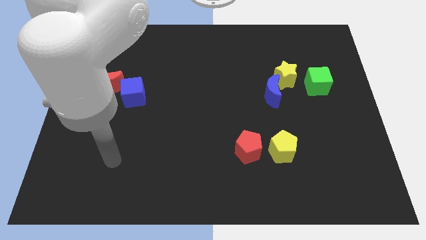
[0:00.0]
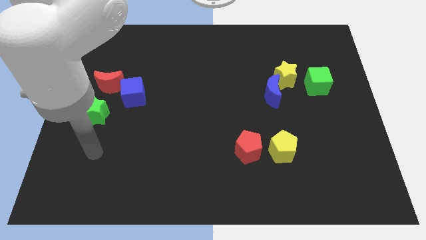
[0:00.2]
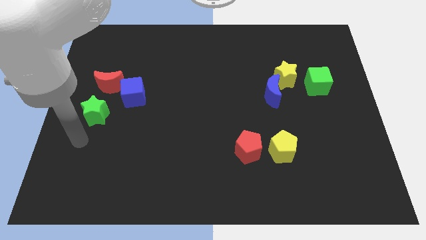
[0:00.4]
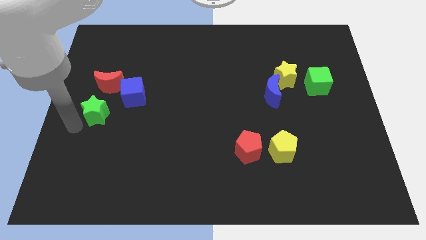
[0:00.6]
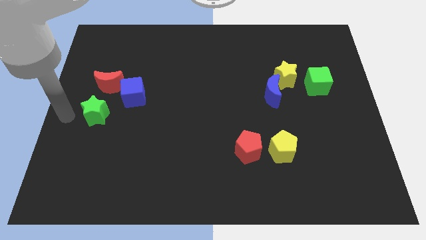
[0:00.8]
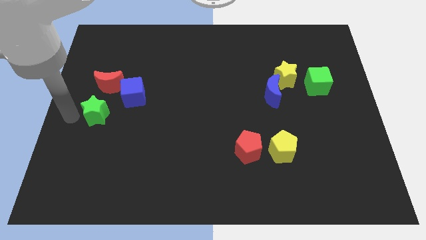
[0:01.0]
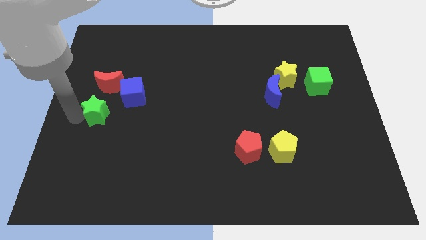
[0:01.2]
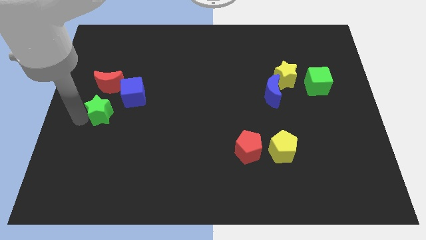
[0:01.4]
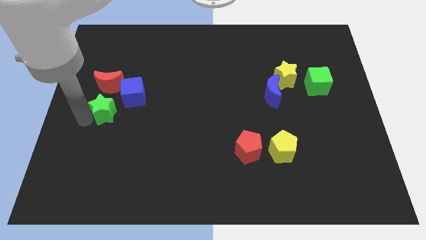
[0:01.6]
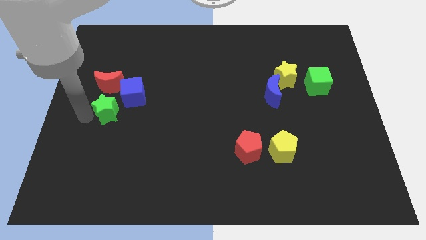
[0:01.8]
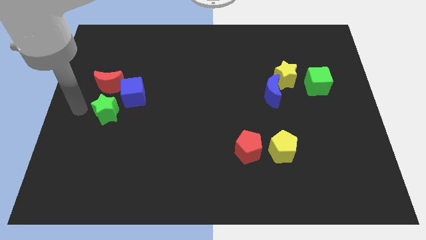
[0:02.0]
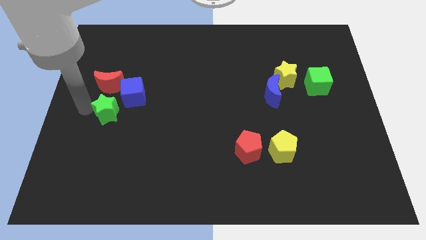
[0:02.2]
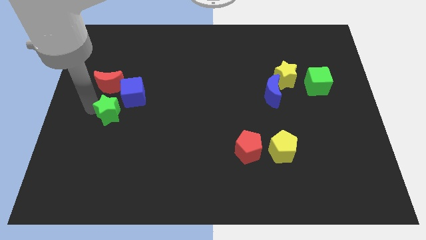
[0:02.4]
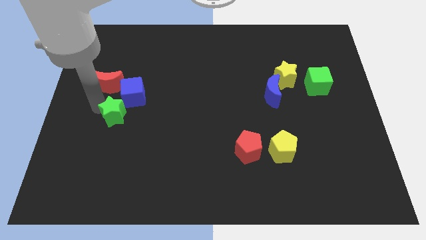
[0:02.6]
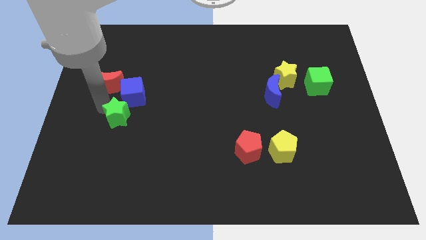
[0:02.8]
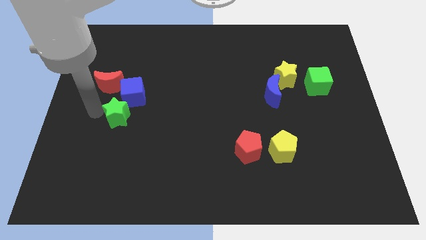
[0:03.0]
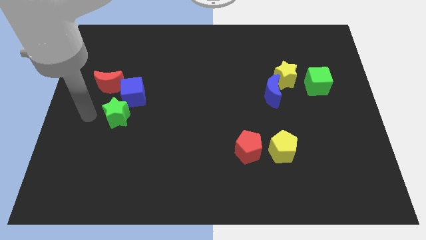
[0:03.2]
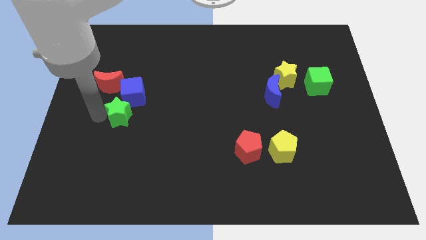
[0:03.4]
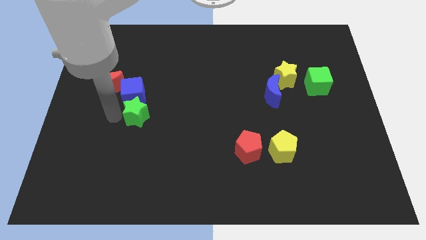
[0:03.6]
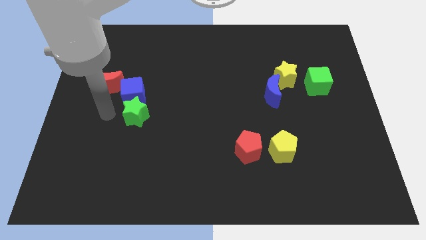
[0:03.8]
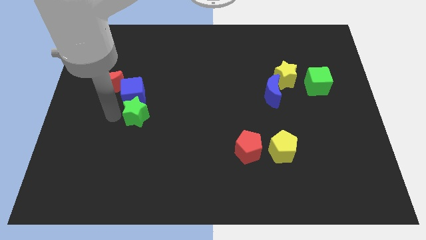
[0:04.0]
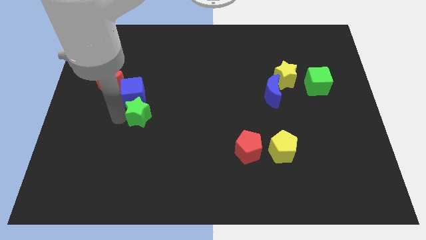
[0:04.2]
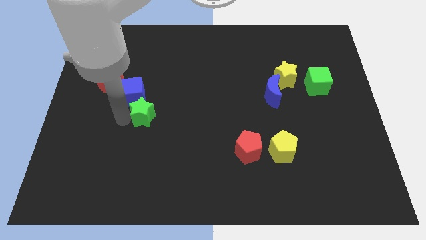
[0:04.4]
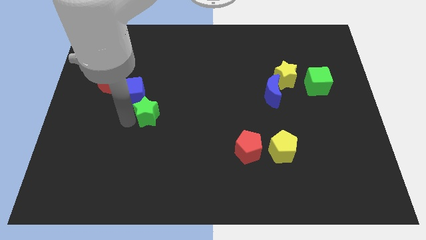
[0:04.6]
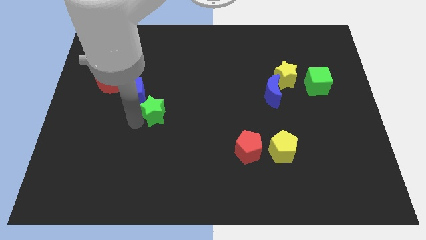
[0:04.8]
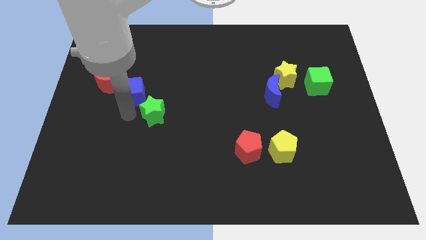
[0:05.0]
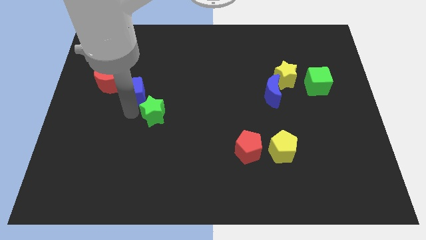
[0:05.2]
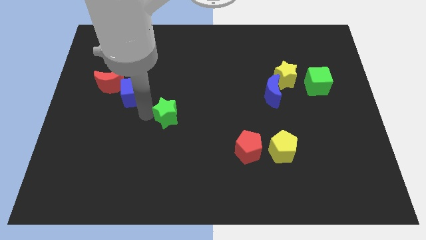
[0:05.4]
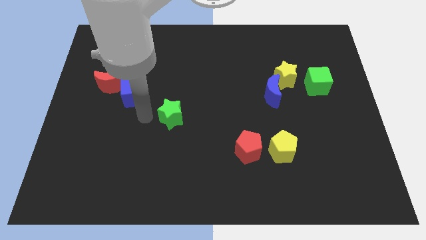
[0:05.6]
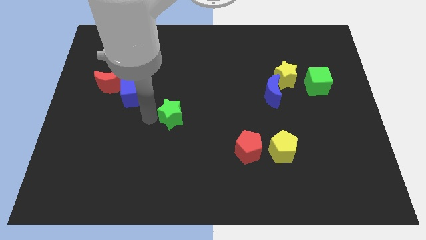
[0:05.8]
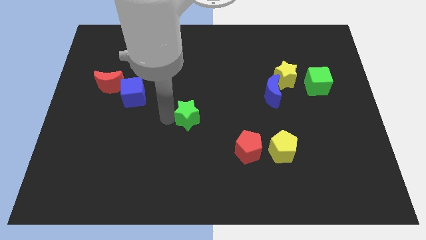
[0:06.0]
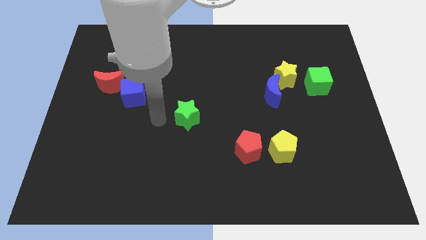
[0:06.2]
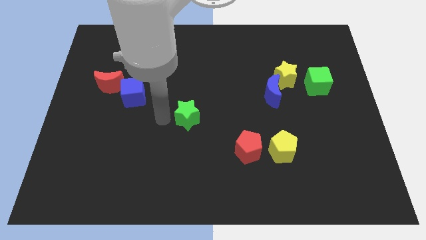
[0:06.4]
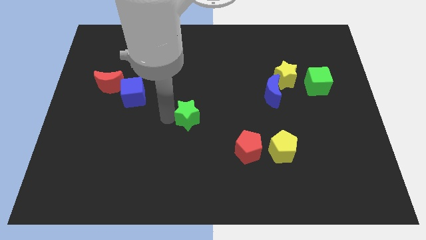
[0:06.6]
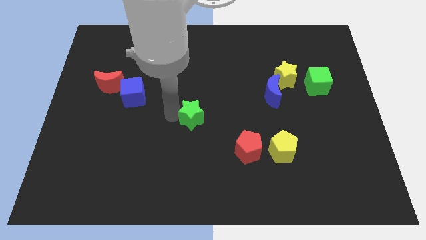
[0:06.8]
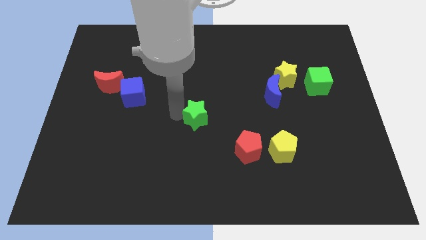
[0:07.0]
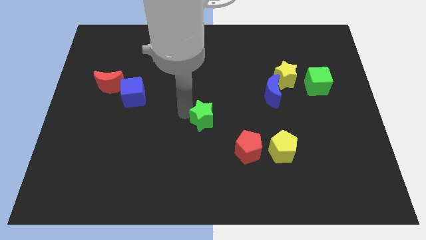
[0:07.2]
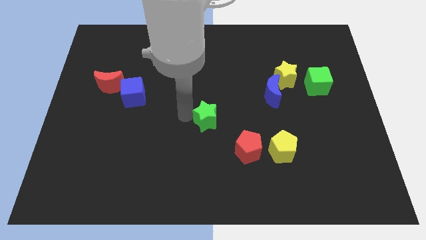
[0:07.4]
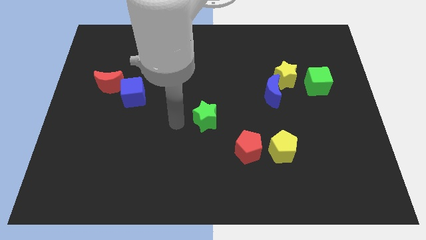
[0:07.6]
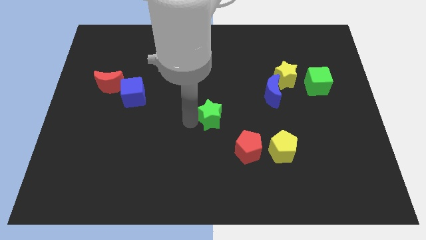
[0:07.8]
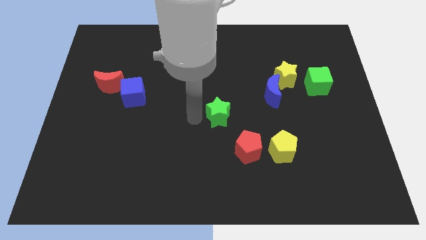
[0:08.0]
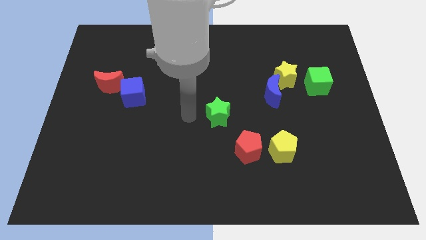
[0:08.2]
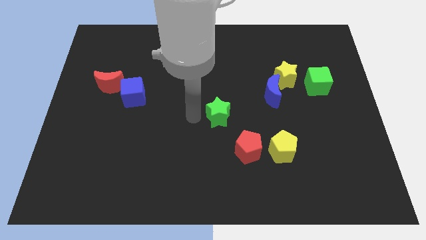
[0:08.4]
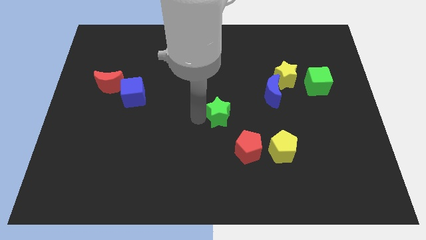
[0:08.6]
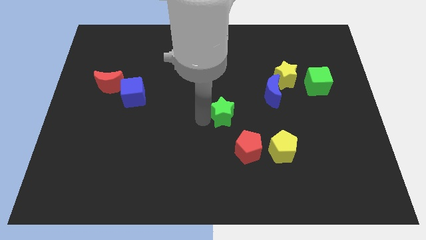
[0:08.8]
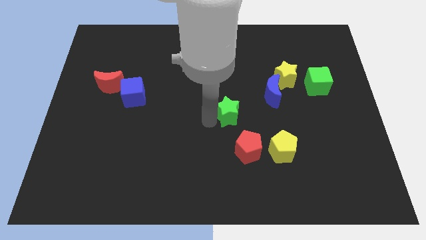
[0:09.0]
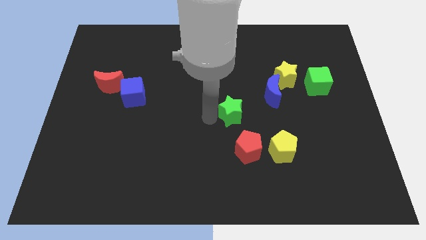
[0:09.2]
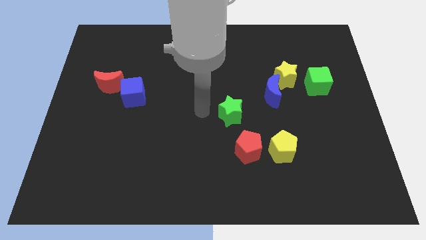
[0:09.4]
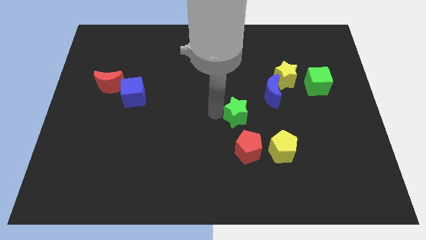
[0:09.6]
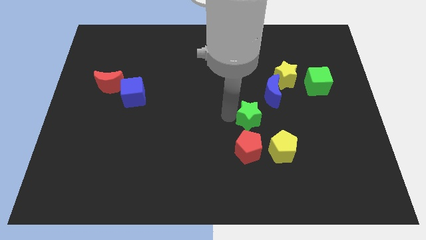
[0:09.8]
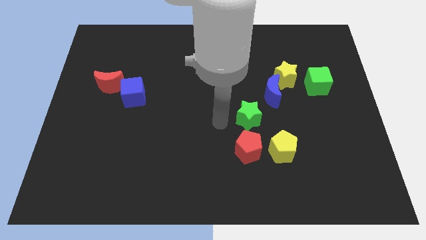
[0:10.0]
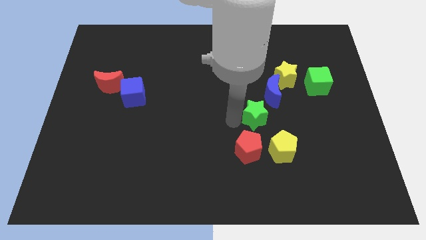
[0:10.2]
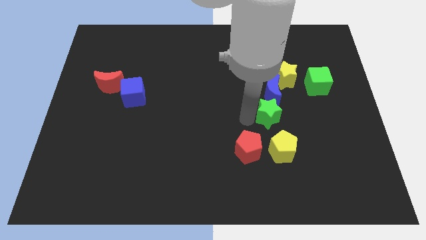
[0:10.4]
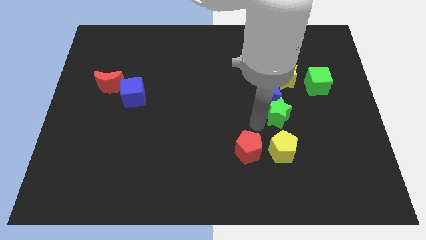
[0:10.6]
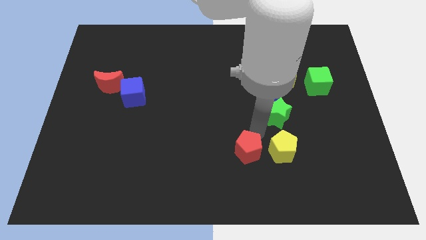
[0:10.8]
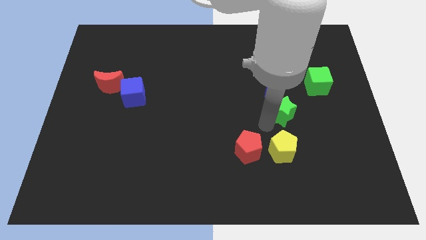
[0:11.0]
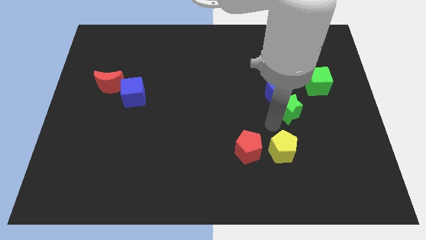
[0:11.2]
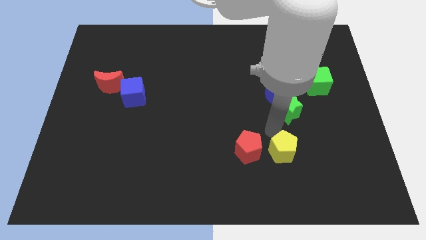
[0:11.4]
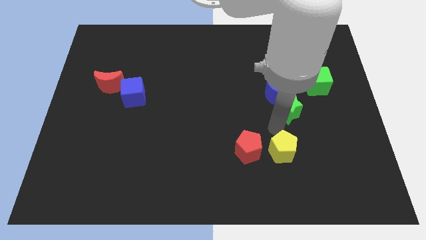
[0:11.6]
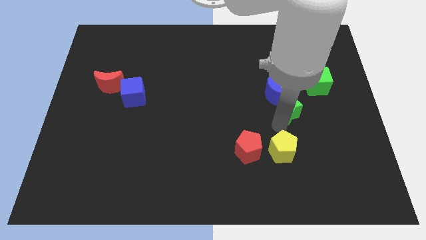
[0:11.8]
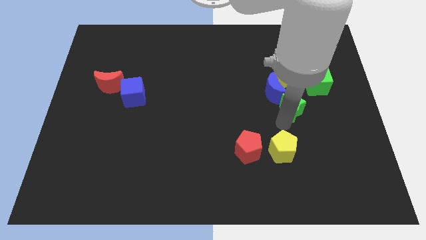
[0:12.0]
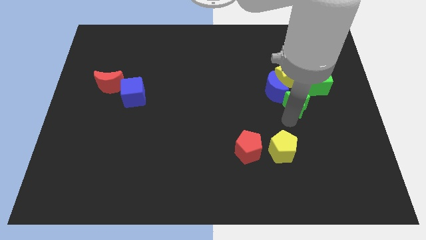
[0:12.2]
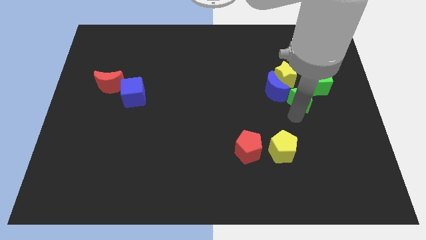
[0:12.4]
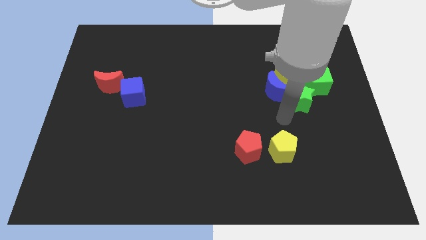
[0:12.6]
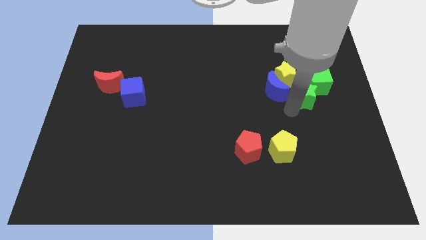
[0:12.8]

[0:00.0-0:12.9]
push the green star towards the green cube
